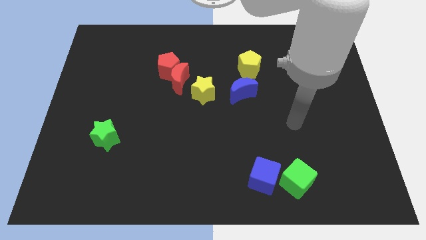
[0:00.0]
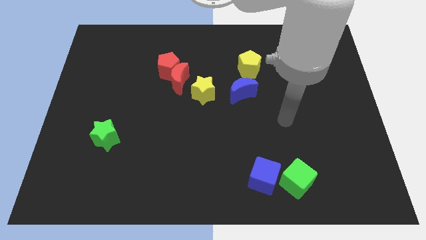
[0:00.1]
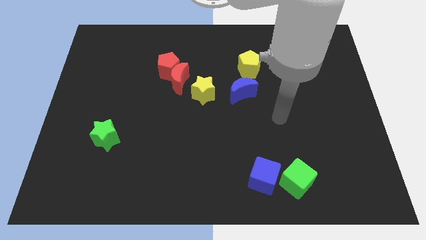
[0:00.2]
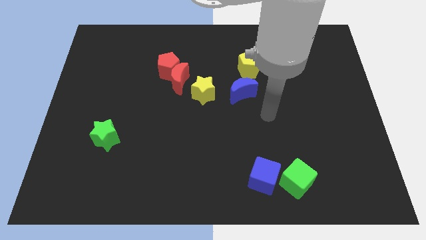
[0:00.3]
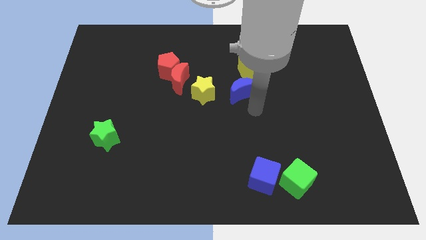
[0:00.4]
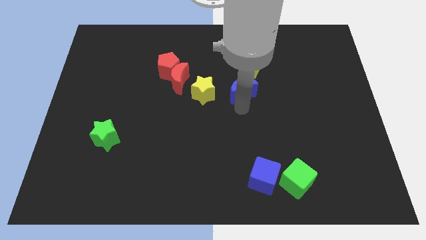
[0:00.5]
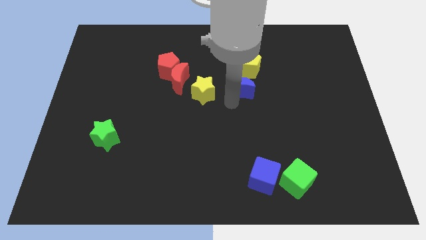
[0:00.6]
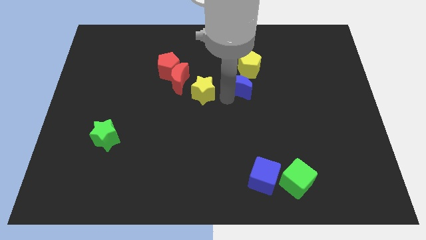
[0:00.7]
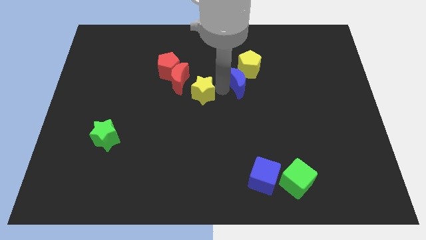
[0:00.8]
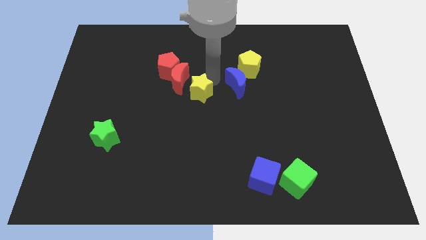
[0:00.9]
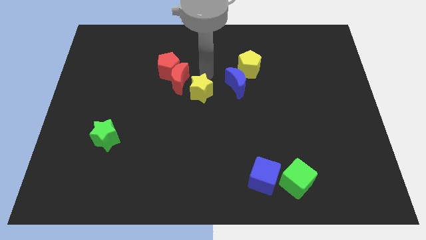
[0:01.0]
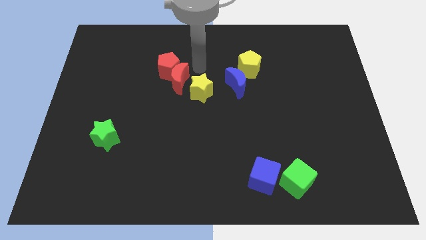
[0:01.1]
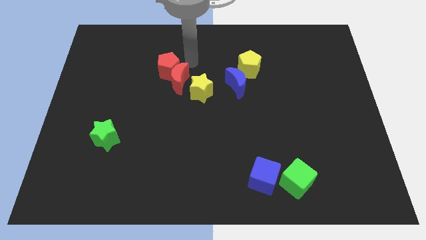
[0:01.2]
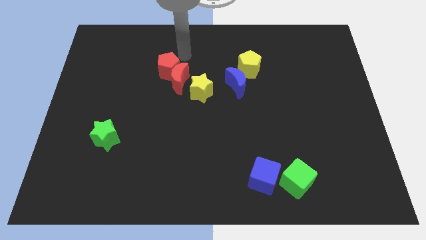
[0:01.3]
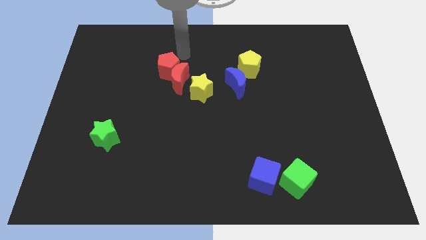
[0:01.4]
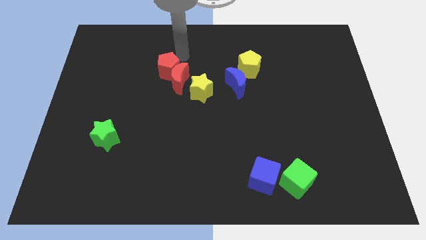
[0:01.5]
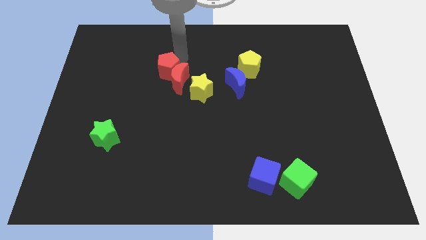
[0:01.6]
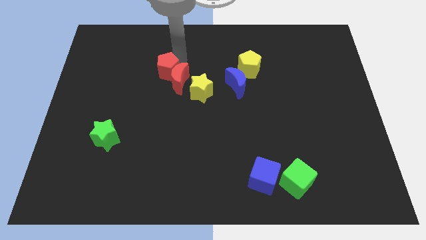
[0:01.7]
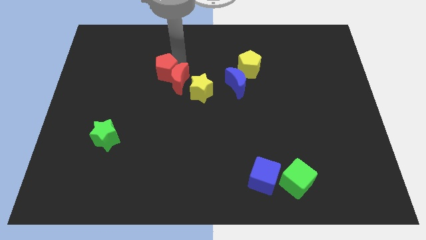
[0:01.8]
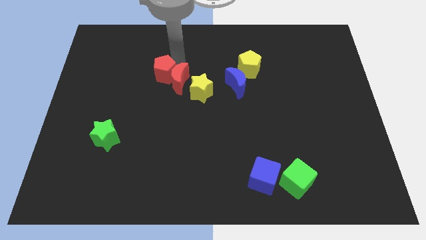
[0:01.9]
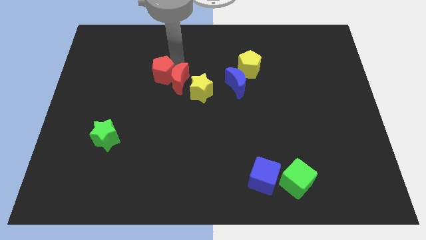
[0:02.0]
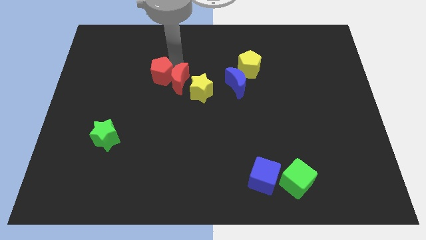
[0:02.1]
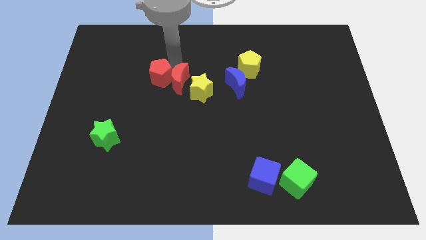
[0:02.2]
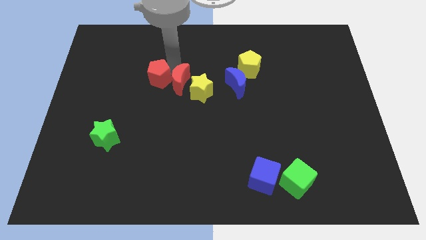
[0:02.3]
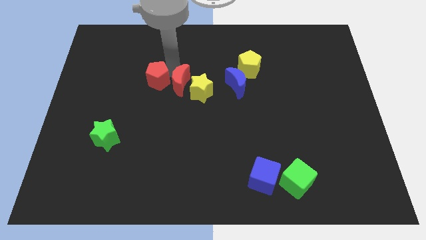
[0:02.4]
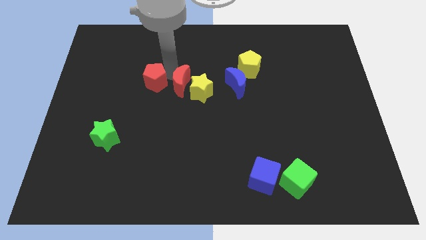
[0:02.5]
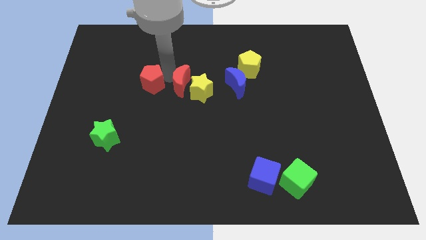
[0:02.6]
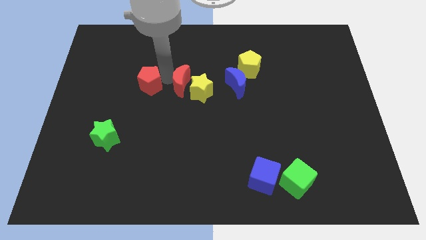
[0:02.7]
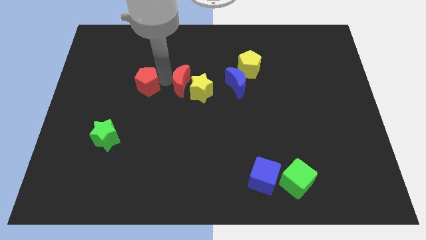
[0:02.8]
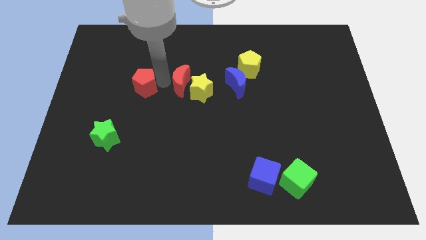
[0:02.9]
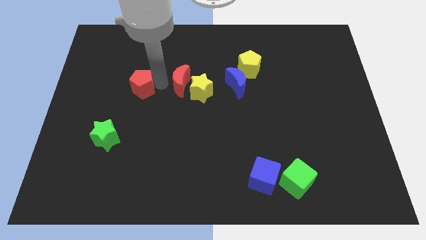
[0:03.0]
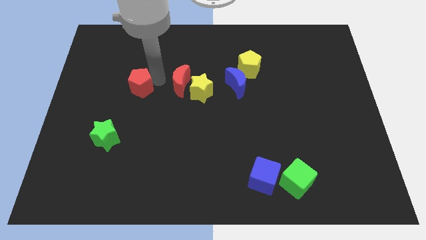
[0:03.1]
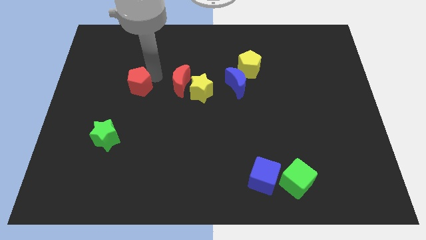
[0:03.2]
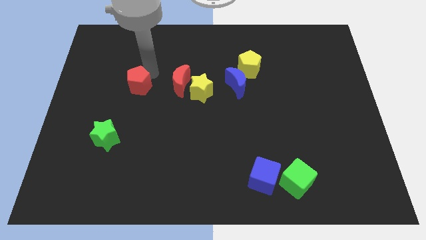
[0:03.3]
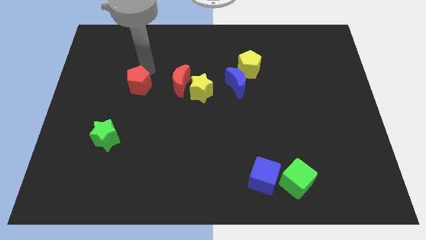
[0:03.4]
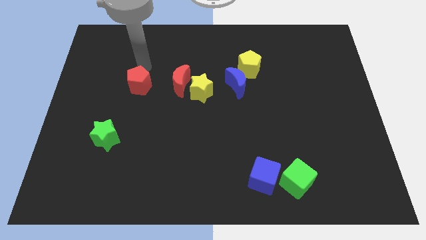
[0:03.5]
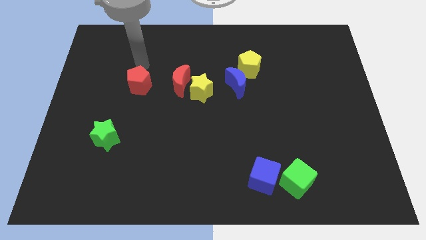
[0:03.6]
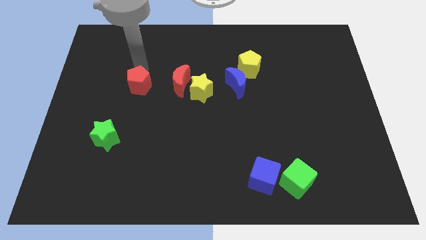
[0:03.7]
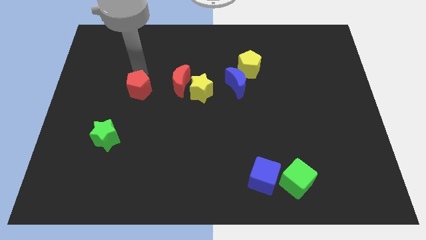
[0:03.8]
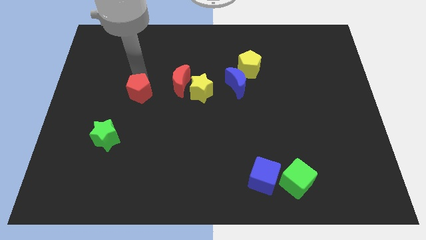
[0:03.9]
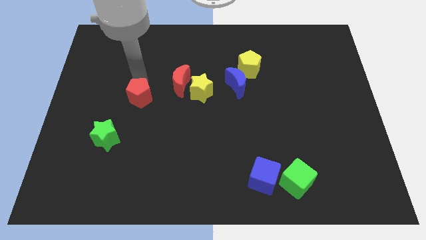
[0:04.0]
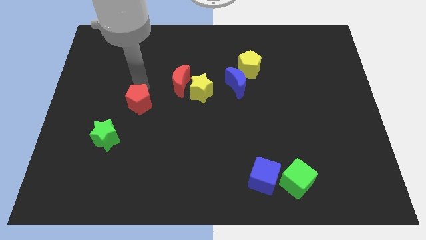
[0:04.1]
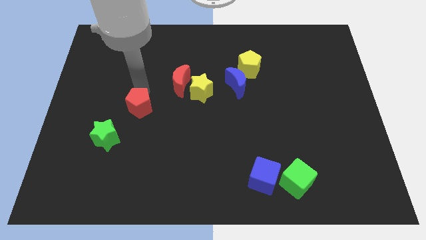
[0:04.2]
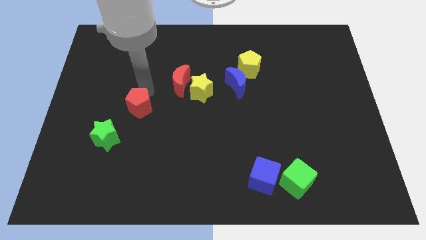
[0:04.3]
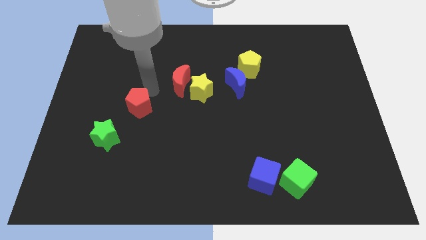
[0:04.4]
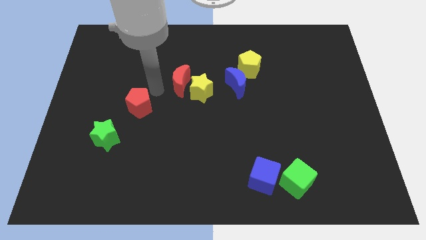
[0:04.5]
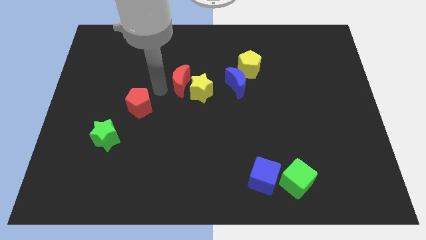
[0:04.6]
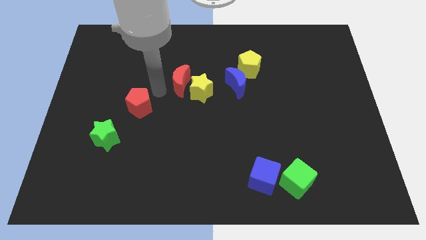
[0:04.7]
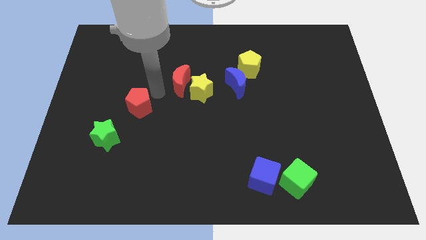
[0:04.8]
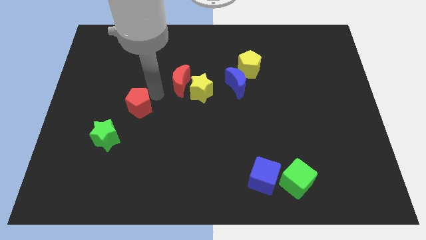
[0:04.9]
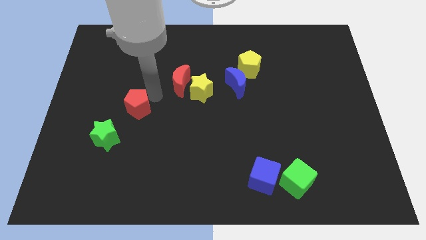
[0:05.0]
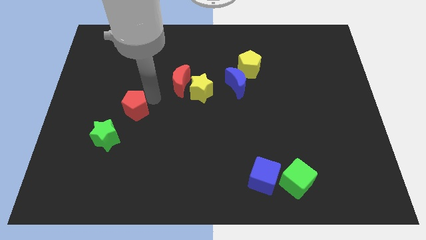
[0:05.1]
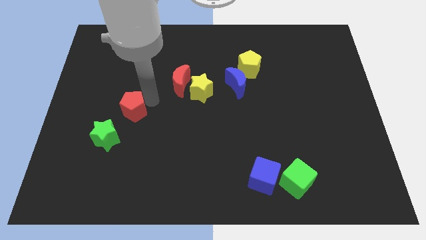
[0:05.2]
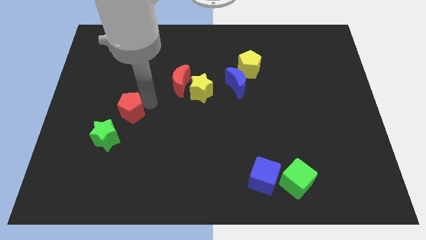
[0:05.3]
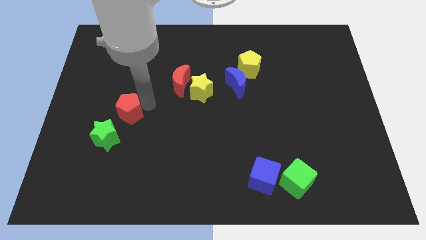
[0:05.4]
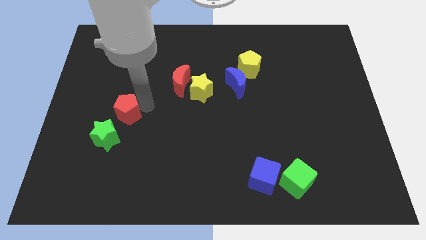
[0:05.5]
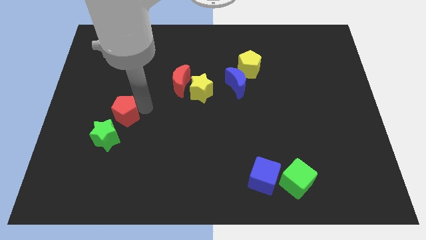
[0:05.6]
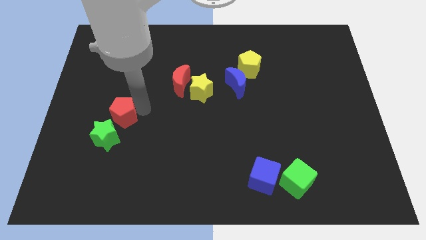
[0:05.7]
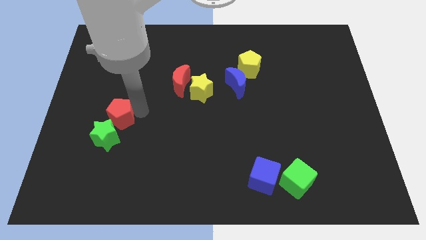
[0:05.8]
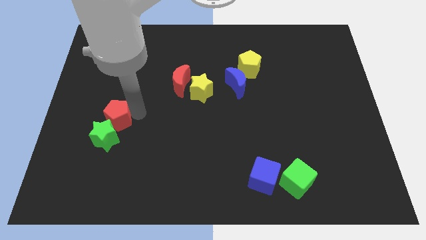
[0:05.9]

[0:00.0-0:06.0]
put the red pentagon close to the green star

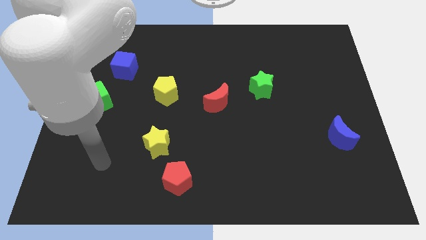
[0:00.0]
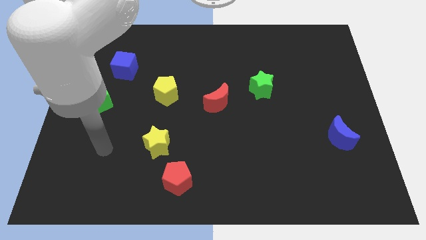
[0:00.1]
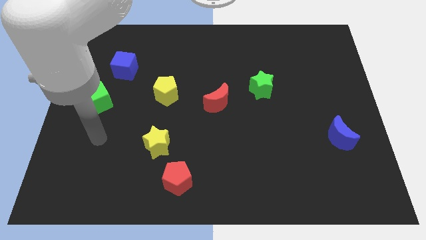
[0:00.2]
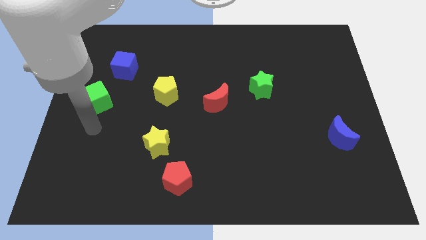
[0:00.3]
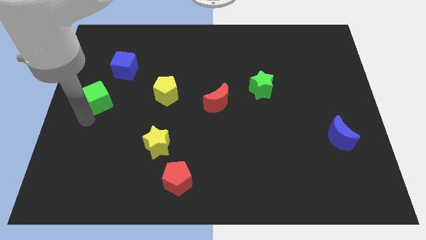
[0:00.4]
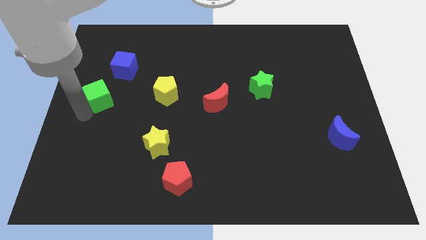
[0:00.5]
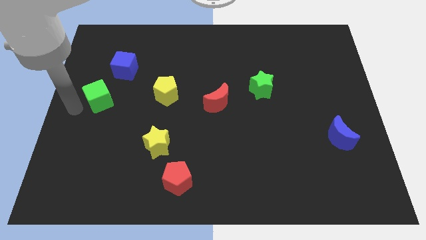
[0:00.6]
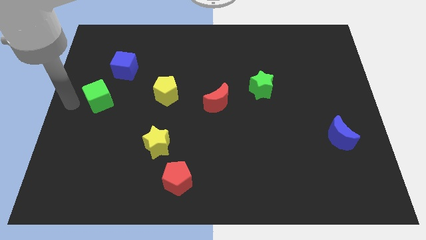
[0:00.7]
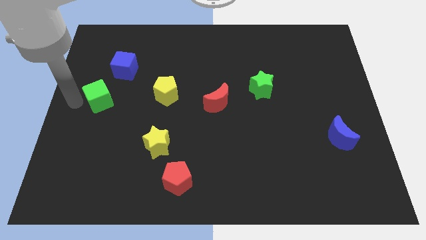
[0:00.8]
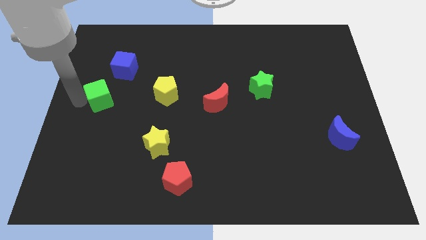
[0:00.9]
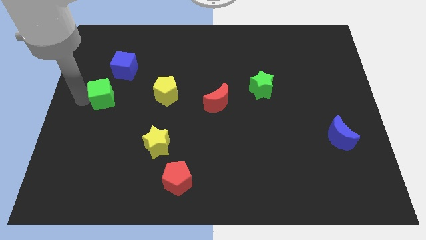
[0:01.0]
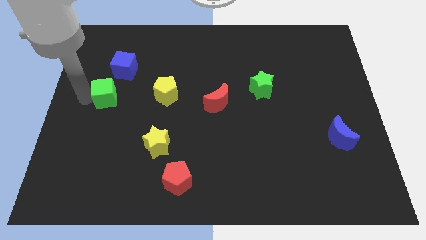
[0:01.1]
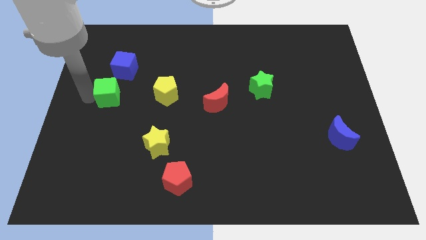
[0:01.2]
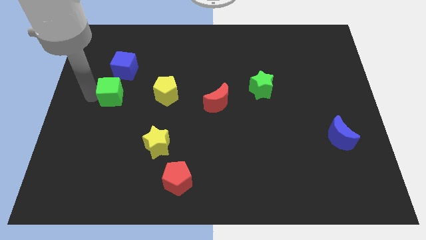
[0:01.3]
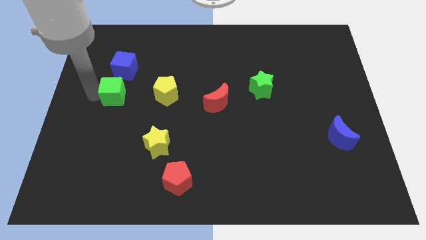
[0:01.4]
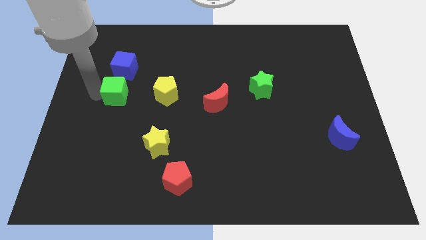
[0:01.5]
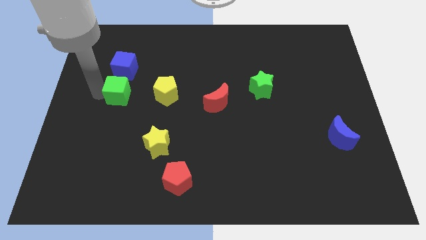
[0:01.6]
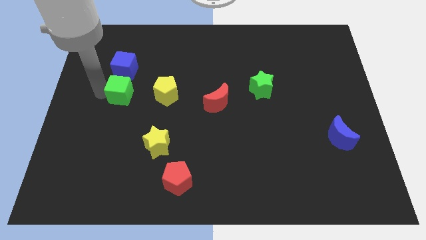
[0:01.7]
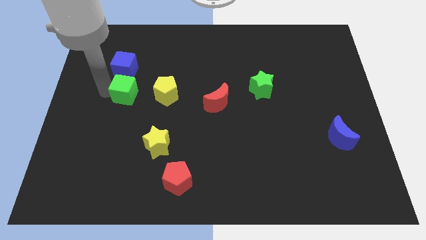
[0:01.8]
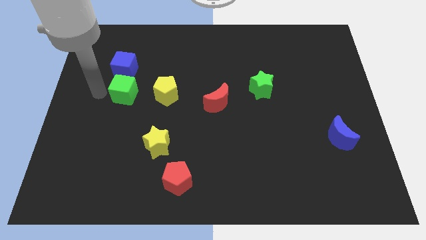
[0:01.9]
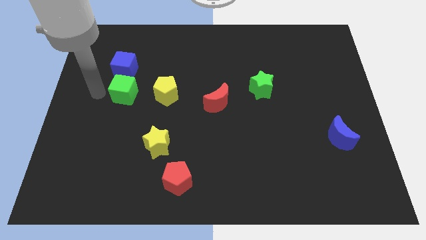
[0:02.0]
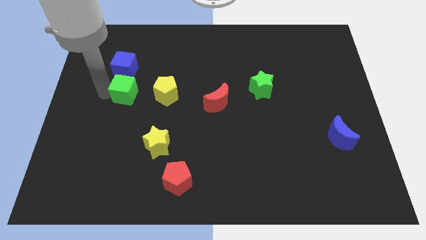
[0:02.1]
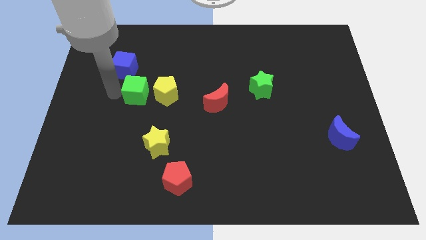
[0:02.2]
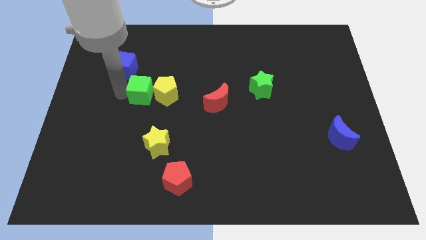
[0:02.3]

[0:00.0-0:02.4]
put the green cube towards the yellow pentagon
